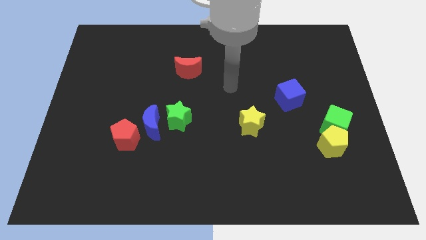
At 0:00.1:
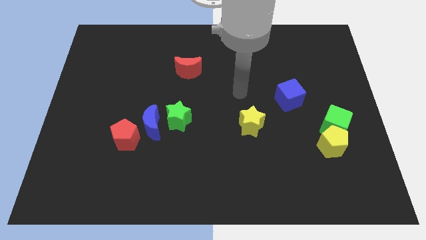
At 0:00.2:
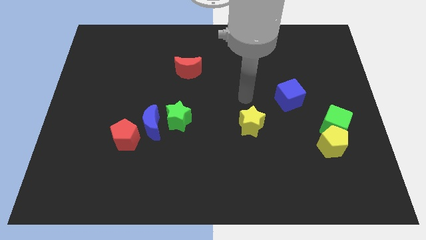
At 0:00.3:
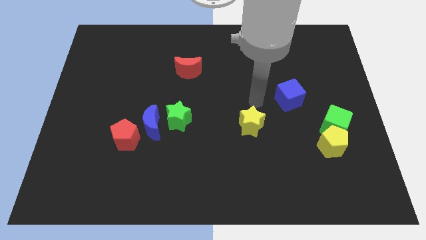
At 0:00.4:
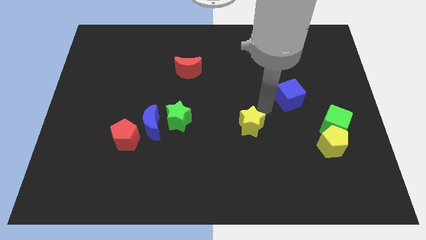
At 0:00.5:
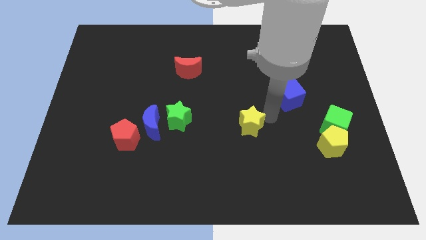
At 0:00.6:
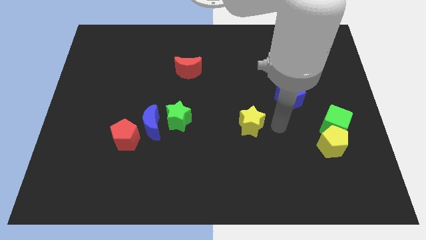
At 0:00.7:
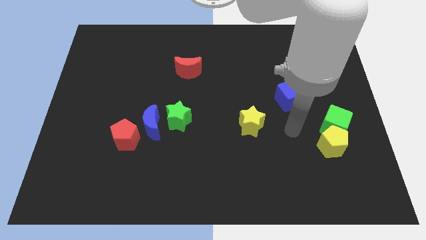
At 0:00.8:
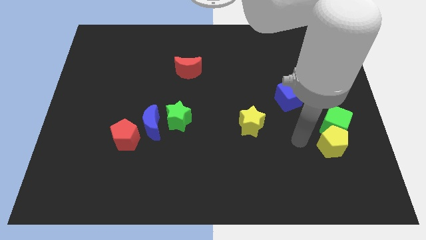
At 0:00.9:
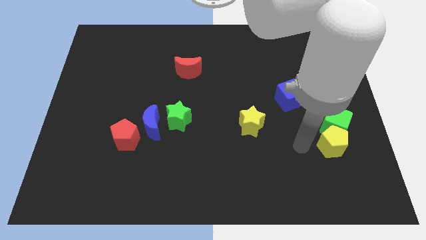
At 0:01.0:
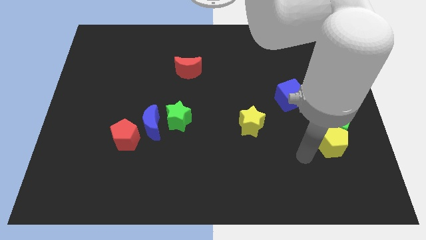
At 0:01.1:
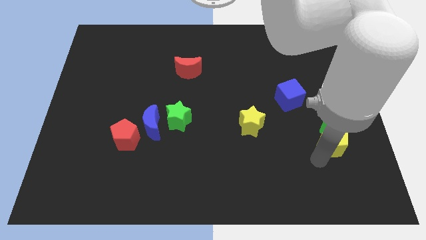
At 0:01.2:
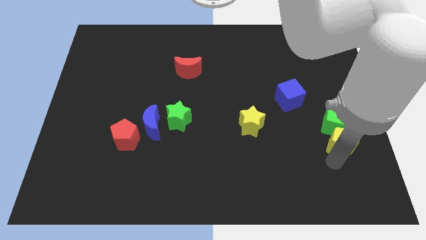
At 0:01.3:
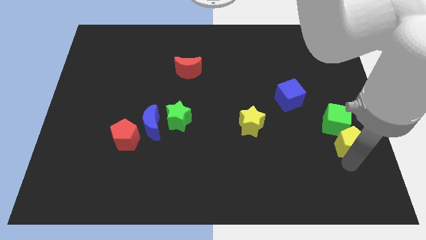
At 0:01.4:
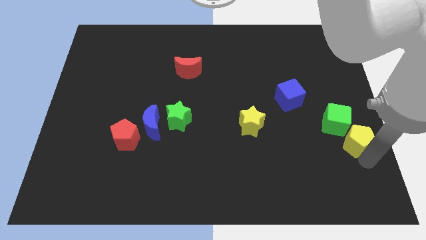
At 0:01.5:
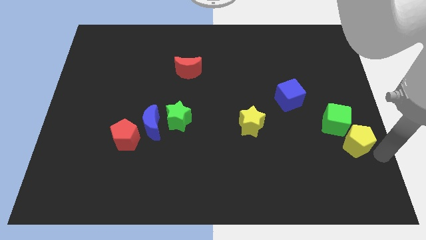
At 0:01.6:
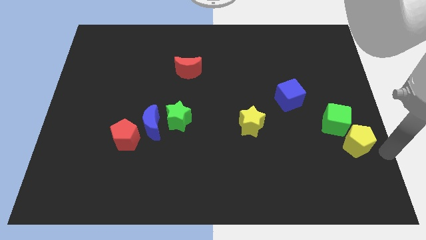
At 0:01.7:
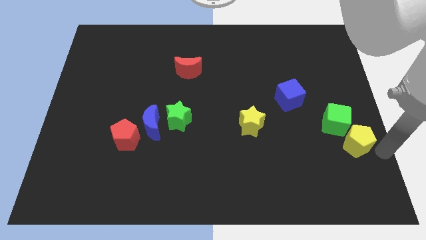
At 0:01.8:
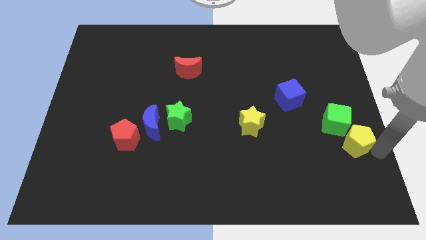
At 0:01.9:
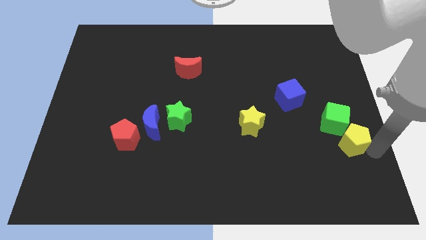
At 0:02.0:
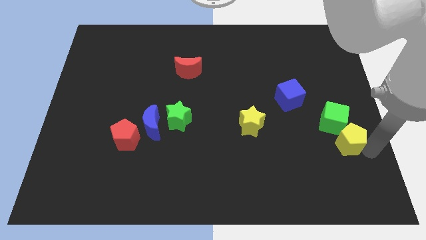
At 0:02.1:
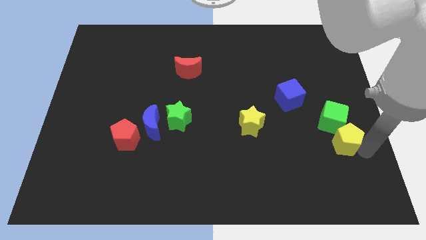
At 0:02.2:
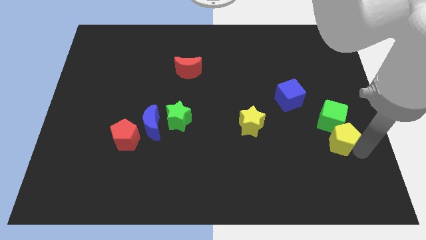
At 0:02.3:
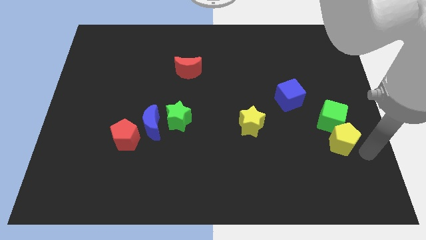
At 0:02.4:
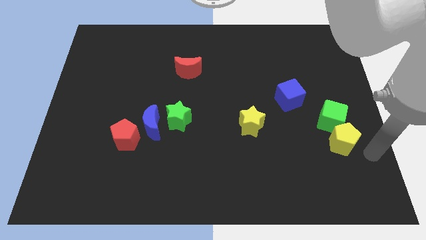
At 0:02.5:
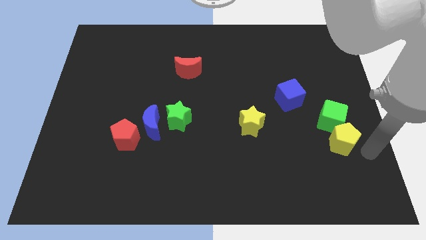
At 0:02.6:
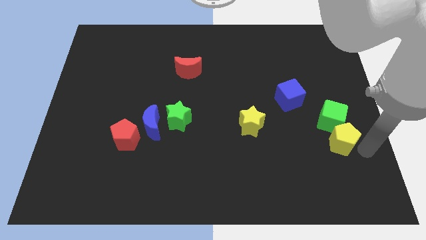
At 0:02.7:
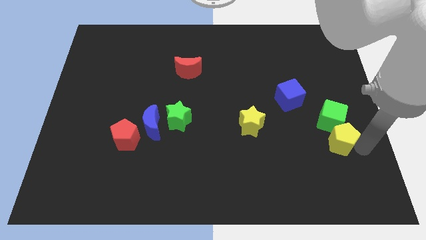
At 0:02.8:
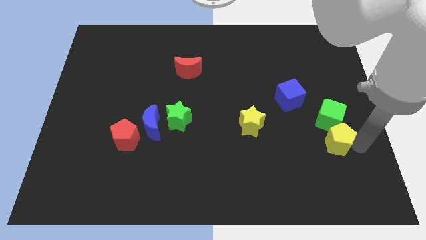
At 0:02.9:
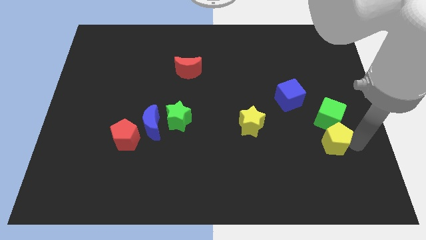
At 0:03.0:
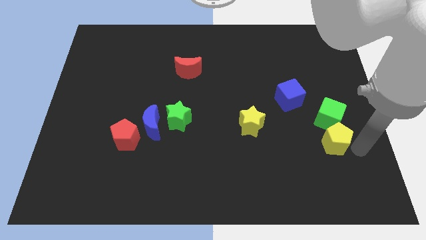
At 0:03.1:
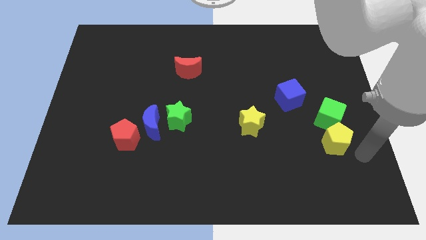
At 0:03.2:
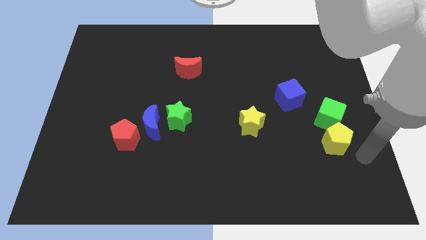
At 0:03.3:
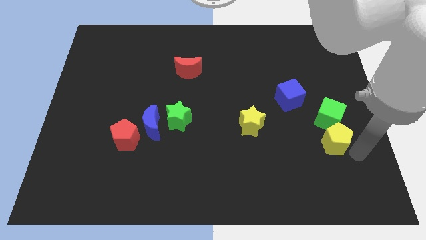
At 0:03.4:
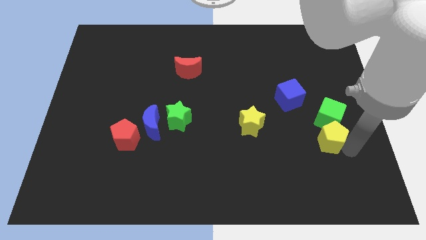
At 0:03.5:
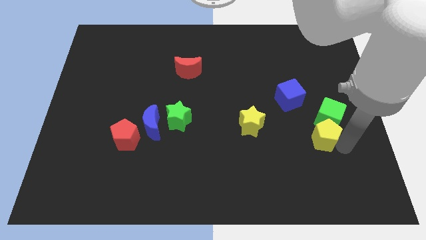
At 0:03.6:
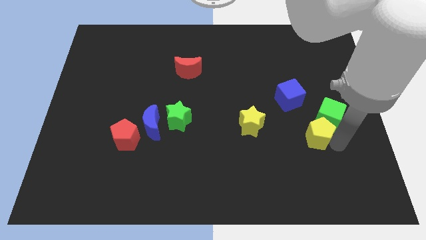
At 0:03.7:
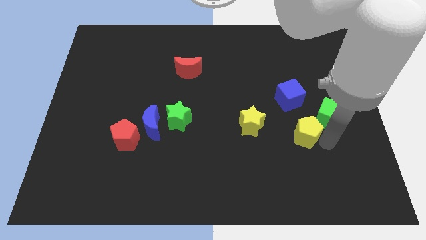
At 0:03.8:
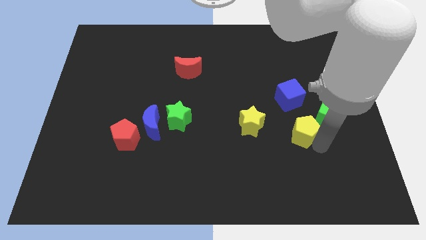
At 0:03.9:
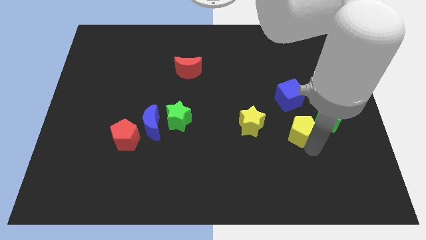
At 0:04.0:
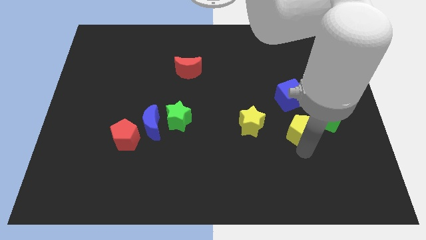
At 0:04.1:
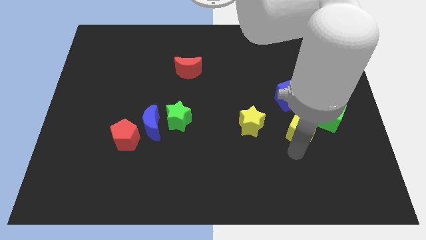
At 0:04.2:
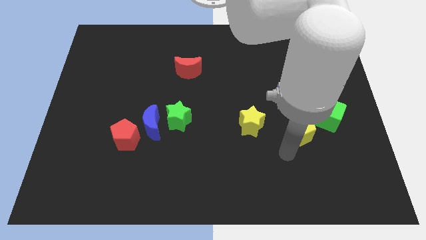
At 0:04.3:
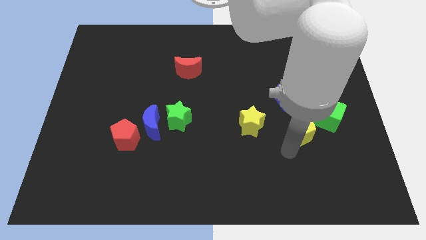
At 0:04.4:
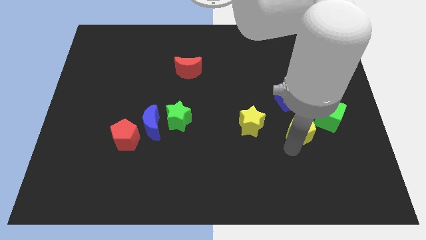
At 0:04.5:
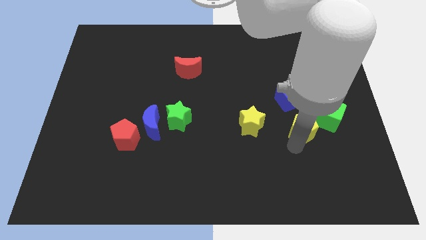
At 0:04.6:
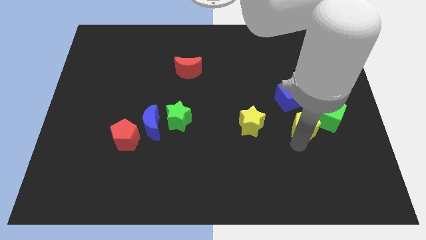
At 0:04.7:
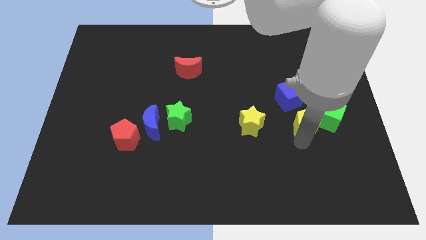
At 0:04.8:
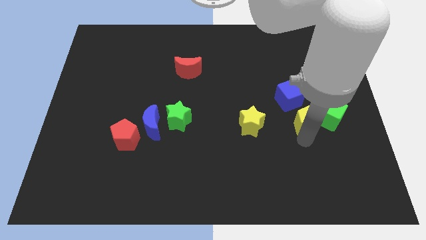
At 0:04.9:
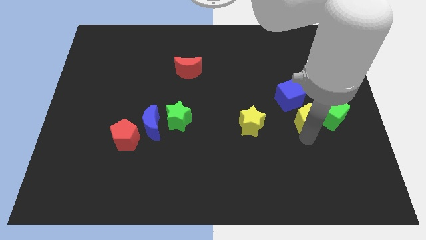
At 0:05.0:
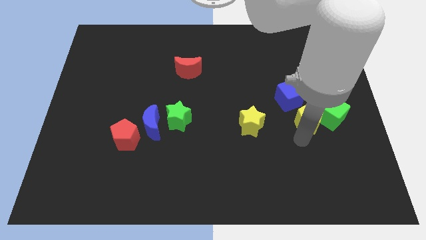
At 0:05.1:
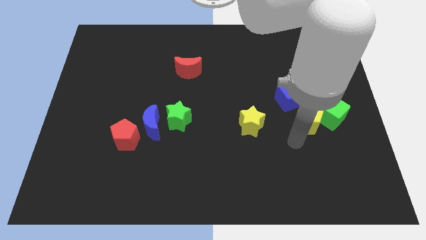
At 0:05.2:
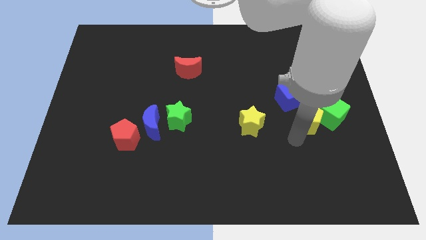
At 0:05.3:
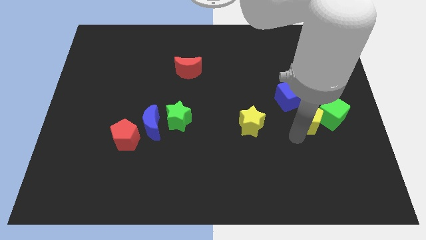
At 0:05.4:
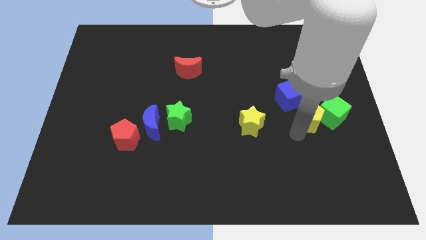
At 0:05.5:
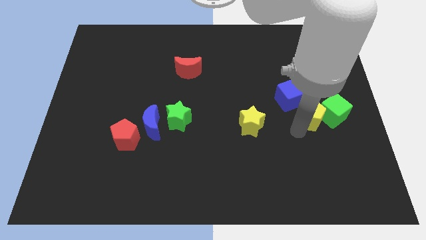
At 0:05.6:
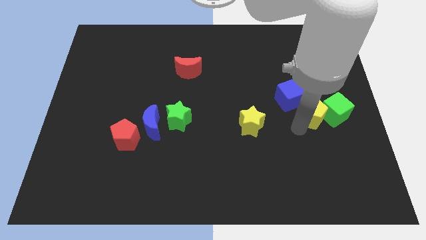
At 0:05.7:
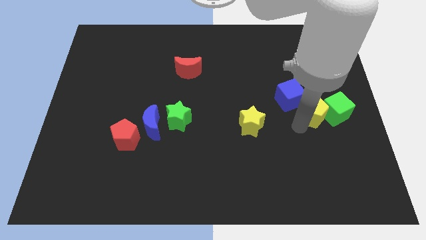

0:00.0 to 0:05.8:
put the yellow pentagon right of the blue cube

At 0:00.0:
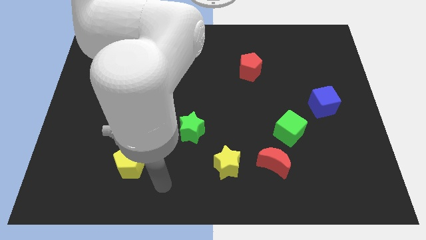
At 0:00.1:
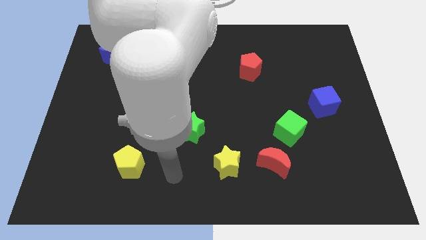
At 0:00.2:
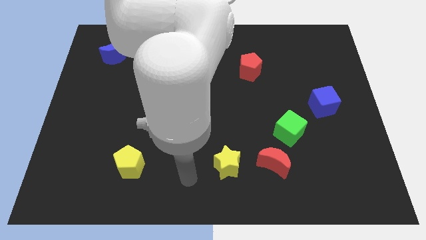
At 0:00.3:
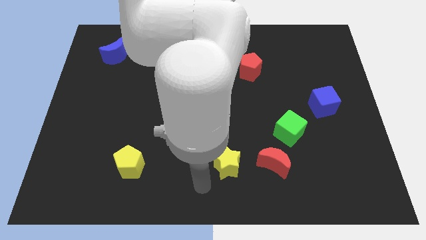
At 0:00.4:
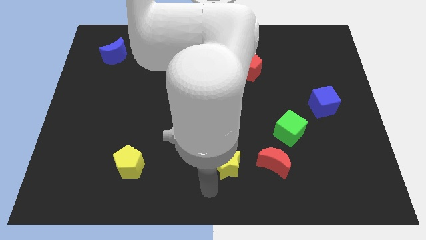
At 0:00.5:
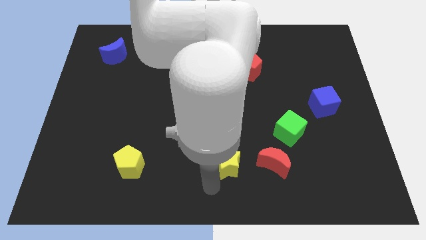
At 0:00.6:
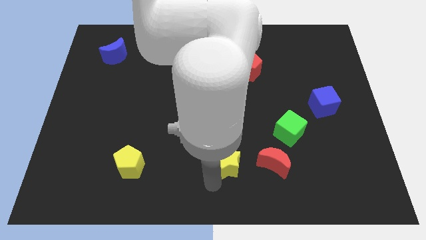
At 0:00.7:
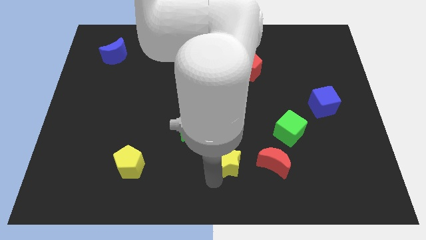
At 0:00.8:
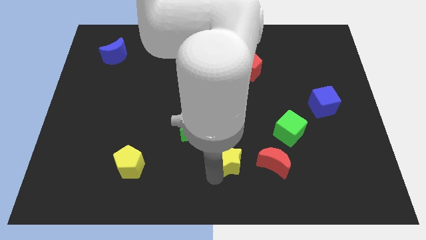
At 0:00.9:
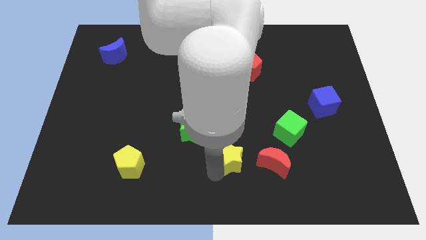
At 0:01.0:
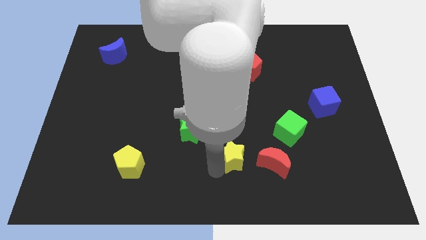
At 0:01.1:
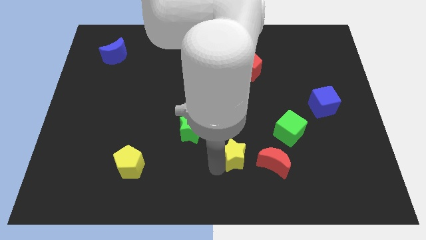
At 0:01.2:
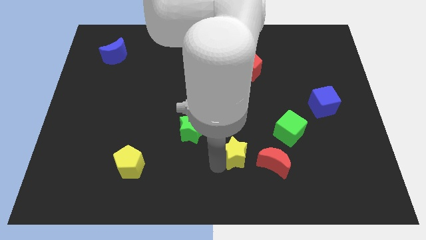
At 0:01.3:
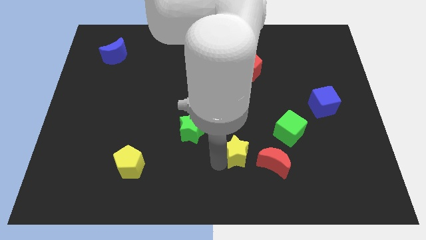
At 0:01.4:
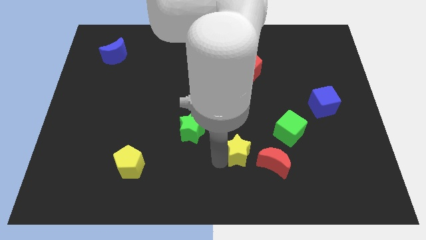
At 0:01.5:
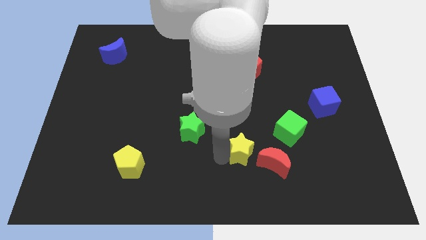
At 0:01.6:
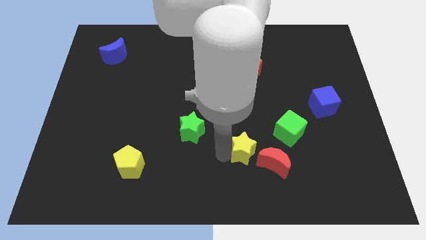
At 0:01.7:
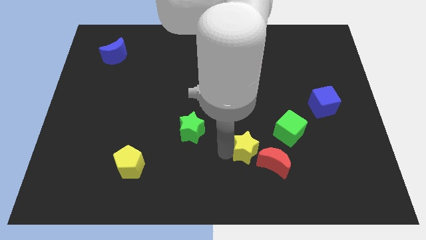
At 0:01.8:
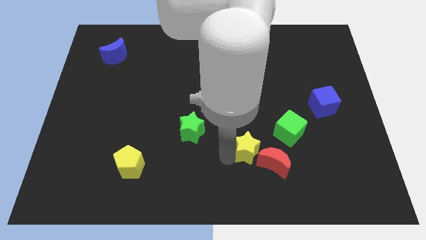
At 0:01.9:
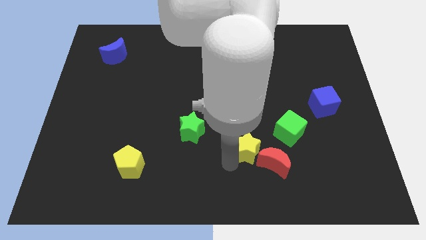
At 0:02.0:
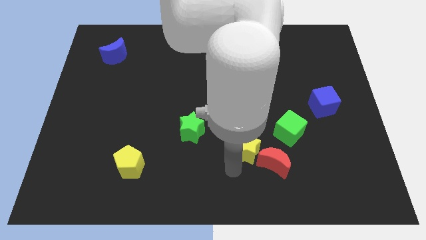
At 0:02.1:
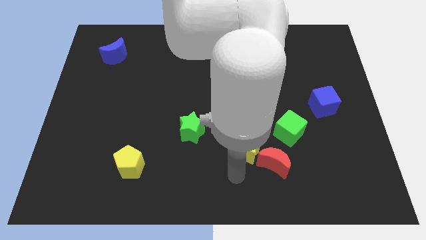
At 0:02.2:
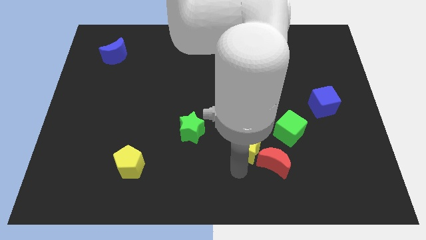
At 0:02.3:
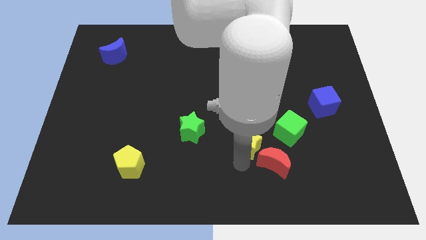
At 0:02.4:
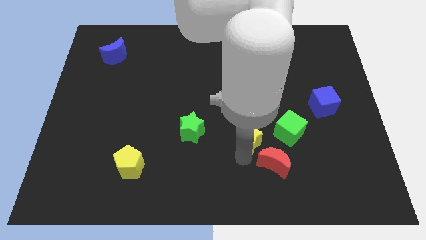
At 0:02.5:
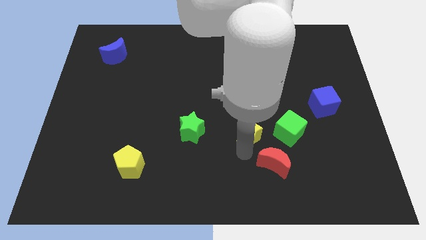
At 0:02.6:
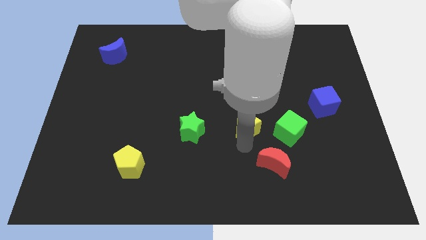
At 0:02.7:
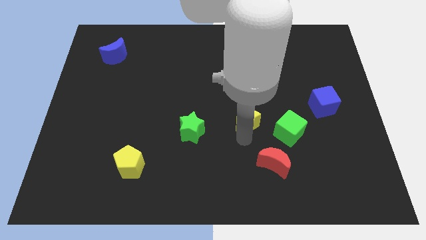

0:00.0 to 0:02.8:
push the yellow star to the top left of the green cube
